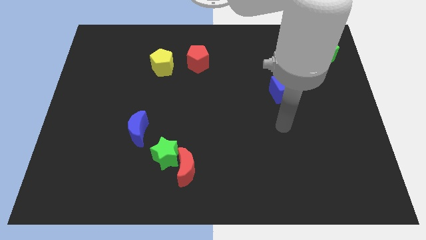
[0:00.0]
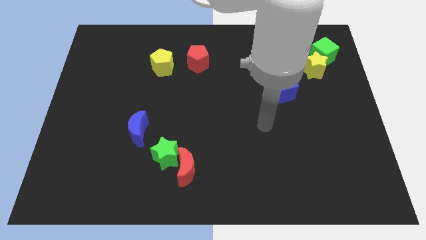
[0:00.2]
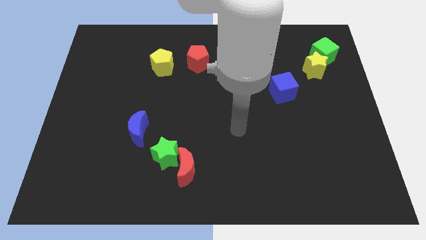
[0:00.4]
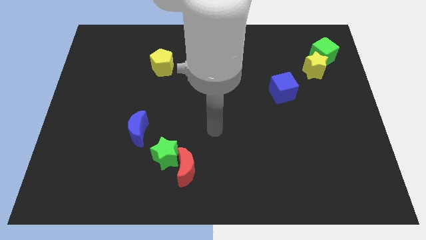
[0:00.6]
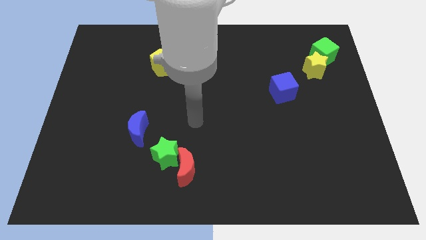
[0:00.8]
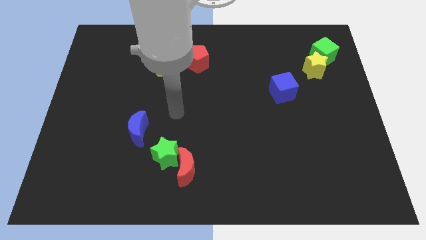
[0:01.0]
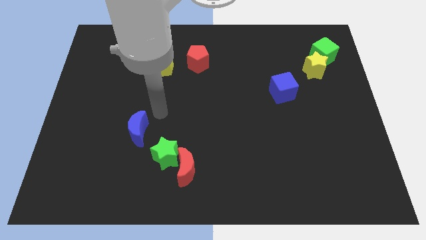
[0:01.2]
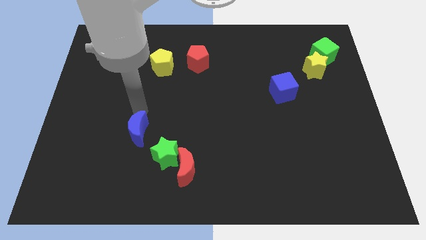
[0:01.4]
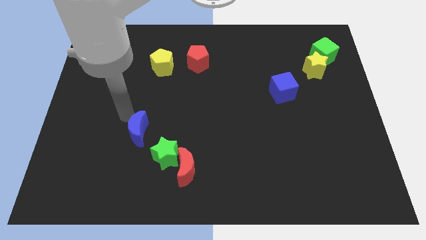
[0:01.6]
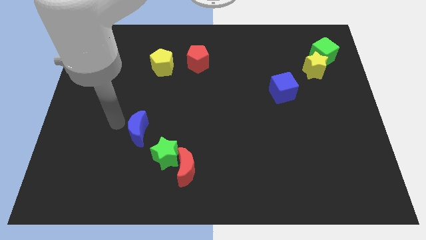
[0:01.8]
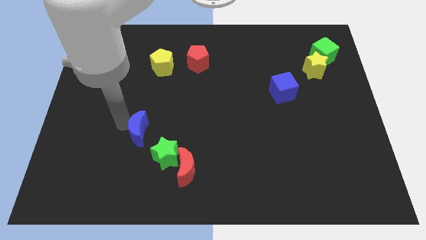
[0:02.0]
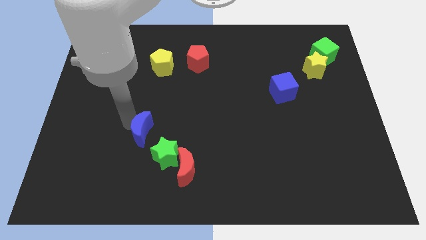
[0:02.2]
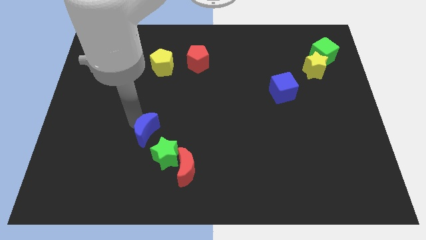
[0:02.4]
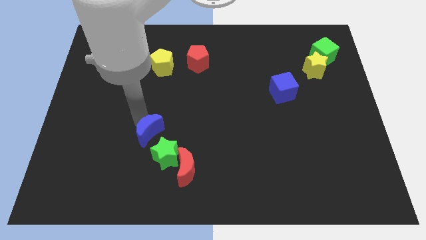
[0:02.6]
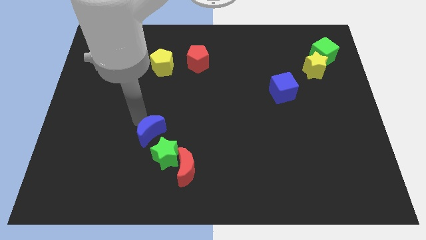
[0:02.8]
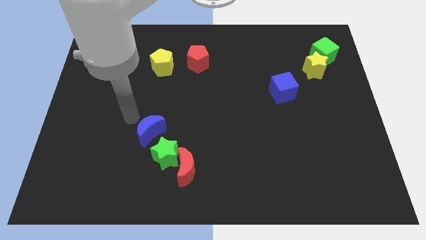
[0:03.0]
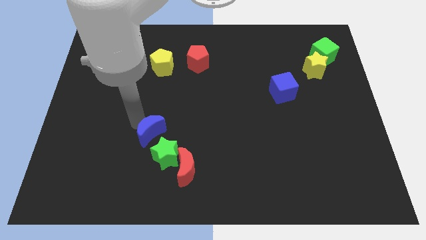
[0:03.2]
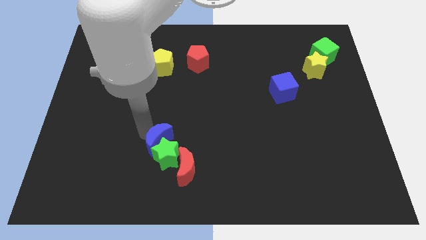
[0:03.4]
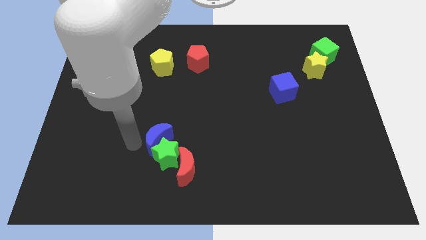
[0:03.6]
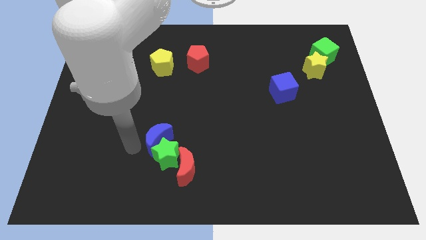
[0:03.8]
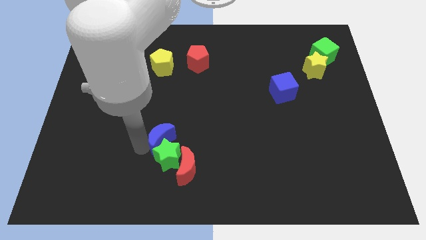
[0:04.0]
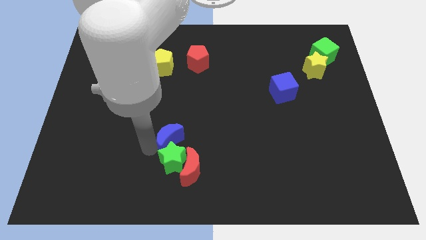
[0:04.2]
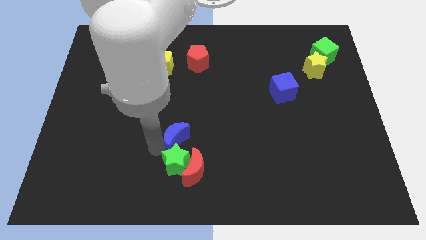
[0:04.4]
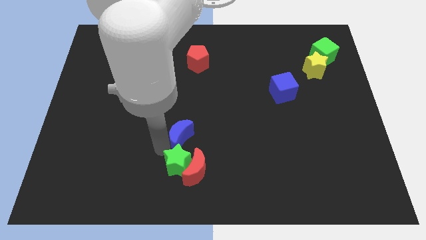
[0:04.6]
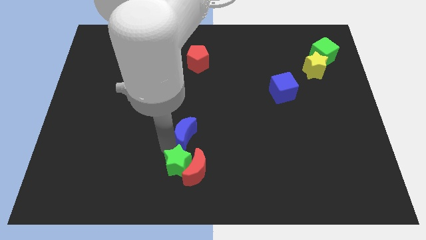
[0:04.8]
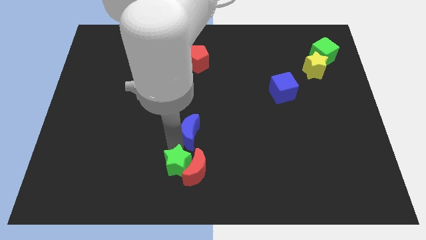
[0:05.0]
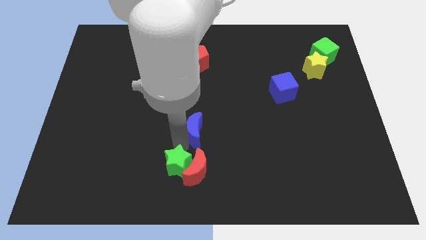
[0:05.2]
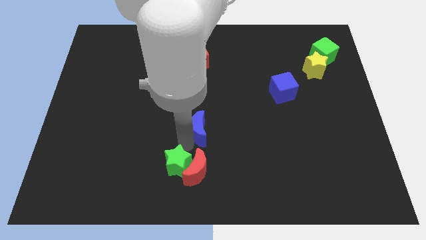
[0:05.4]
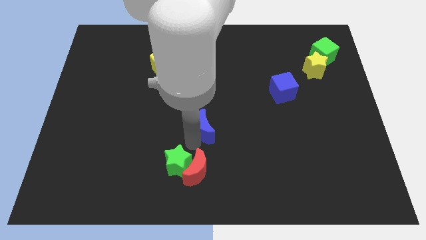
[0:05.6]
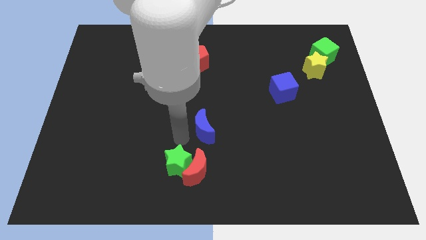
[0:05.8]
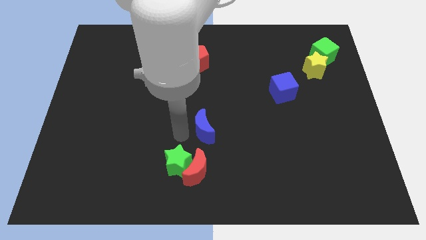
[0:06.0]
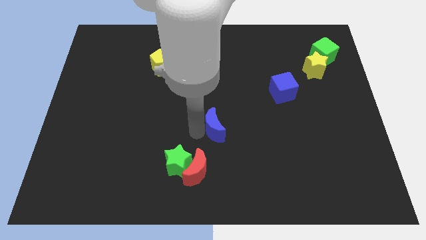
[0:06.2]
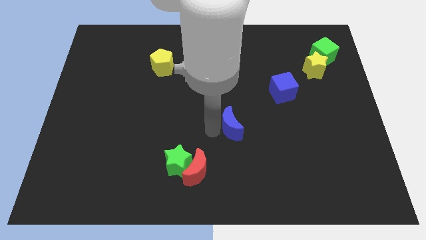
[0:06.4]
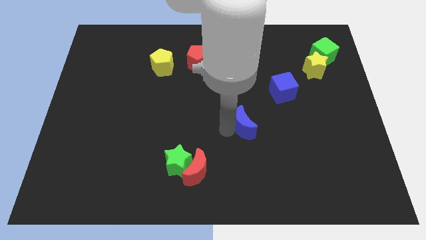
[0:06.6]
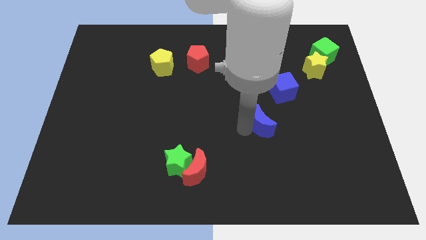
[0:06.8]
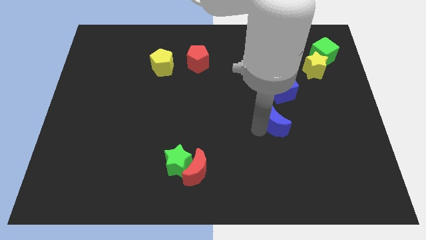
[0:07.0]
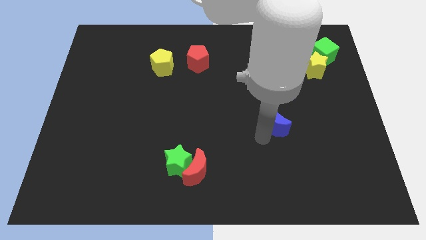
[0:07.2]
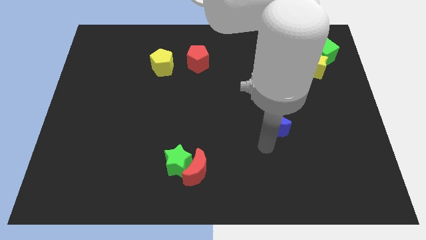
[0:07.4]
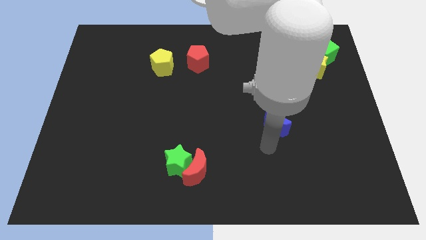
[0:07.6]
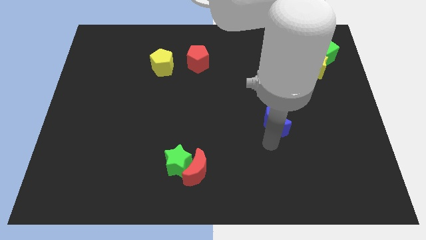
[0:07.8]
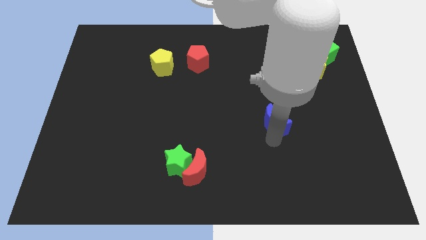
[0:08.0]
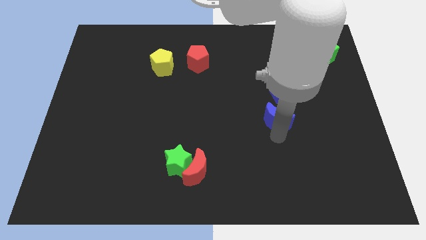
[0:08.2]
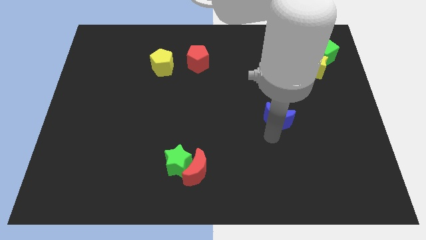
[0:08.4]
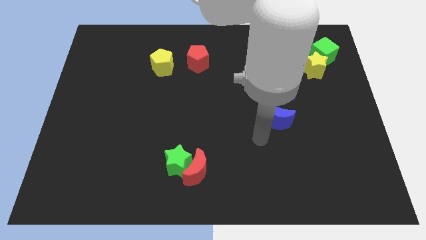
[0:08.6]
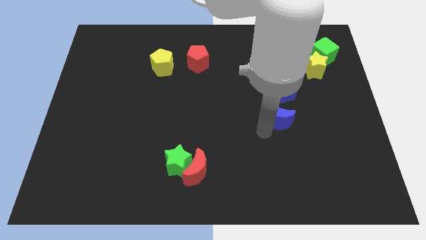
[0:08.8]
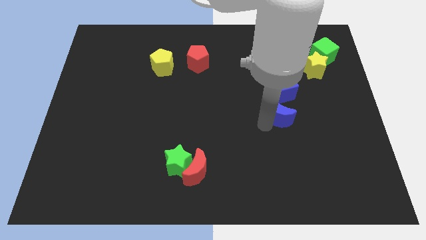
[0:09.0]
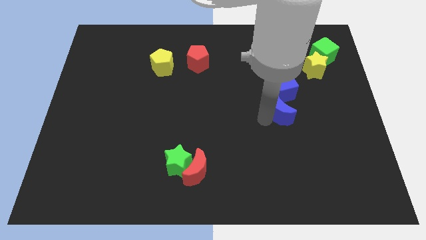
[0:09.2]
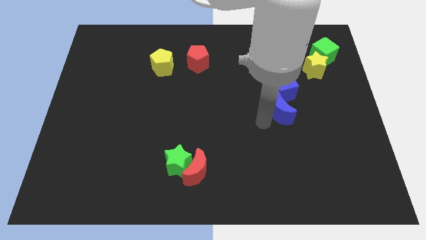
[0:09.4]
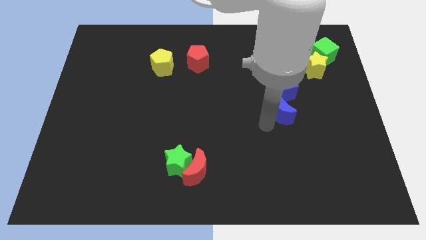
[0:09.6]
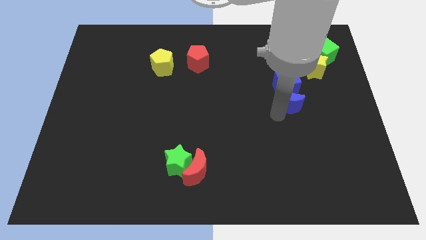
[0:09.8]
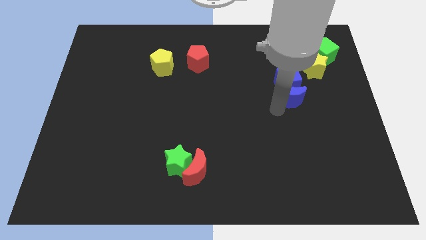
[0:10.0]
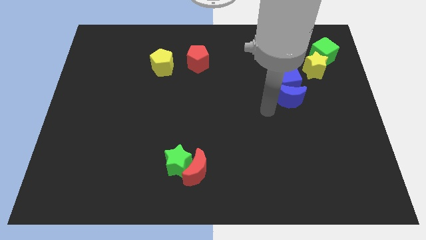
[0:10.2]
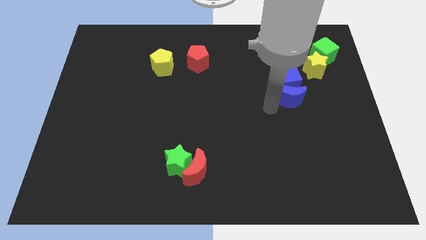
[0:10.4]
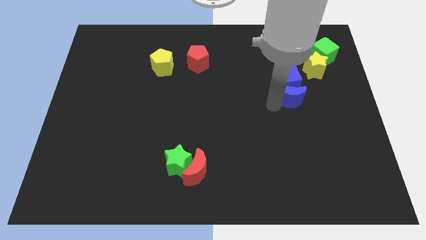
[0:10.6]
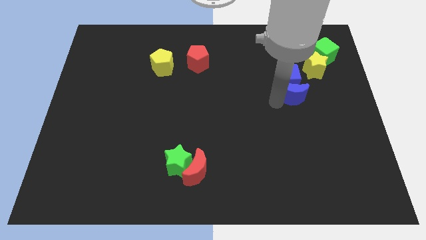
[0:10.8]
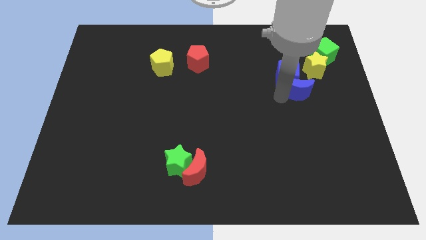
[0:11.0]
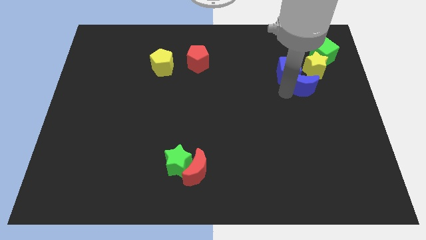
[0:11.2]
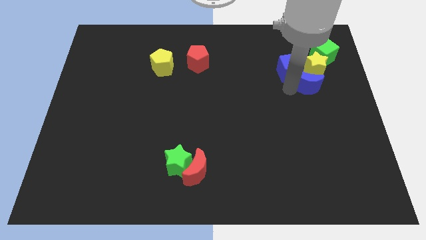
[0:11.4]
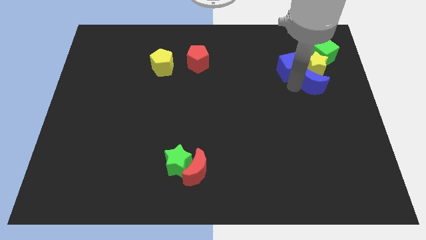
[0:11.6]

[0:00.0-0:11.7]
slide the blue moon to the bottom side of the green cube

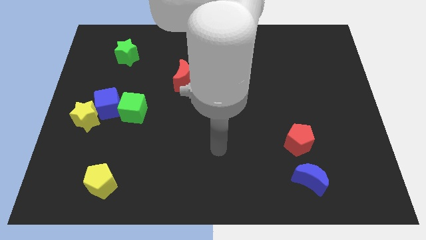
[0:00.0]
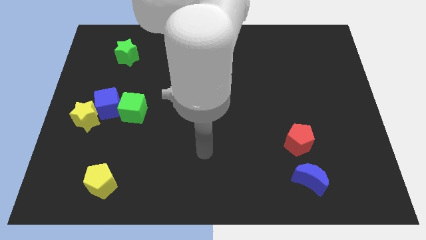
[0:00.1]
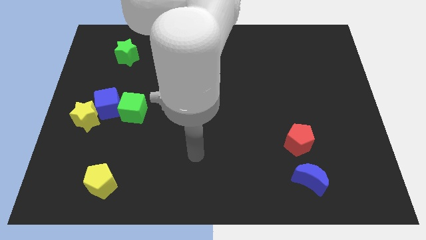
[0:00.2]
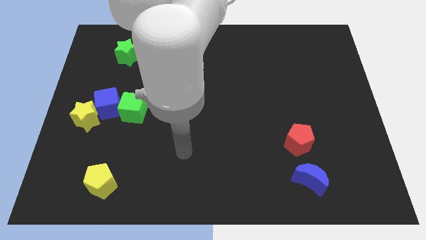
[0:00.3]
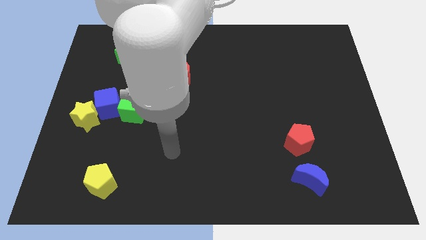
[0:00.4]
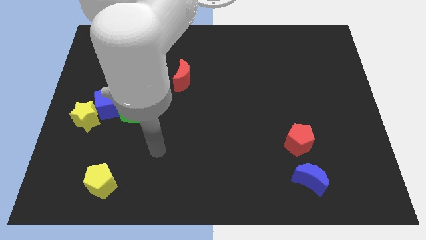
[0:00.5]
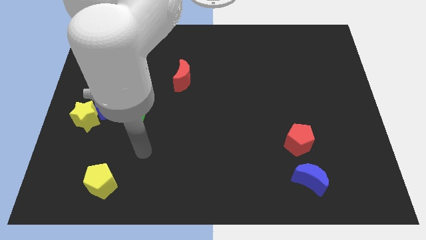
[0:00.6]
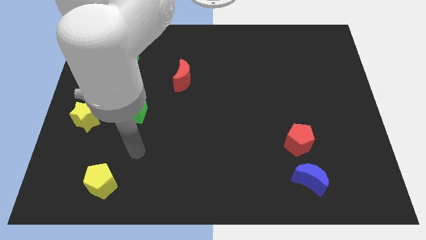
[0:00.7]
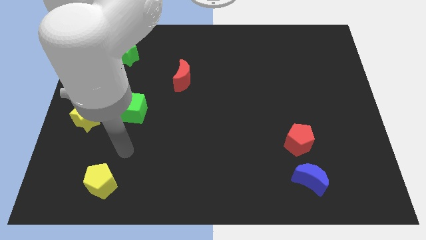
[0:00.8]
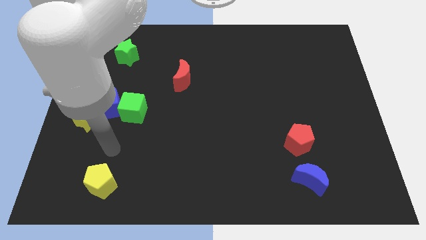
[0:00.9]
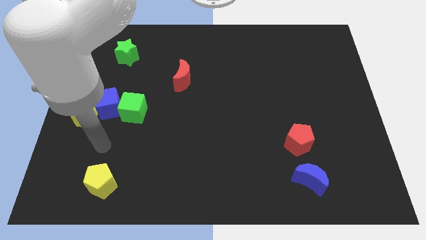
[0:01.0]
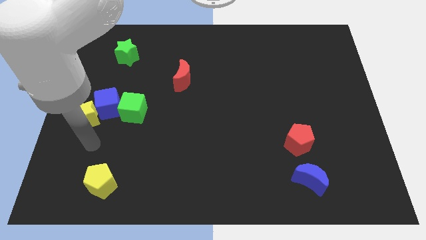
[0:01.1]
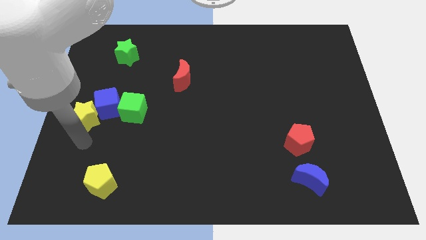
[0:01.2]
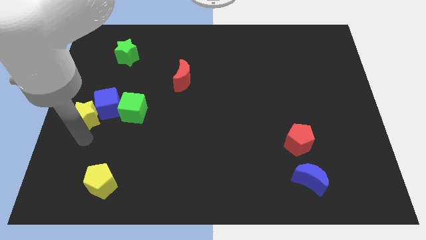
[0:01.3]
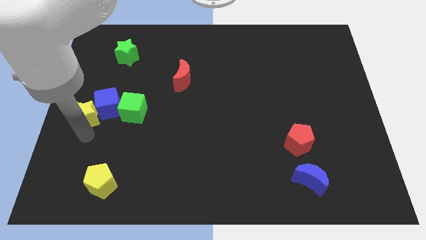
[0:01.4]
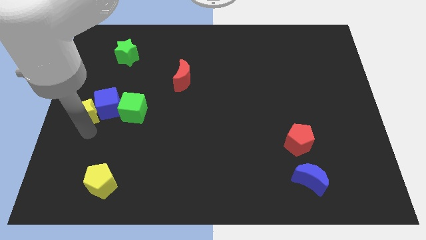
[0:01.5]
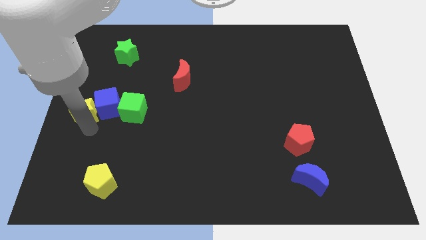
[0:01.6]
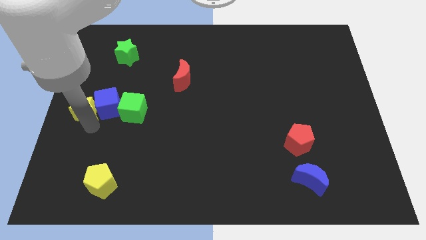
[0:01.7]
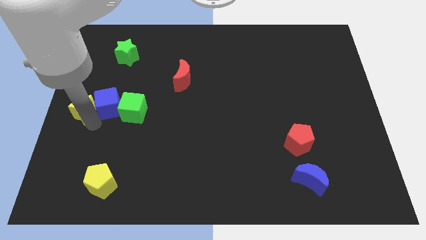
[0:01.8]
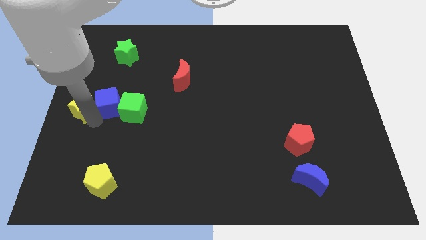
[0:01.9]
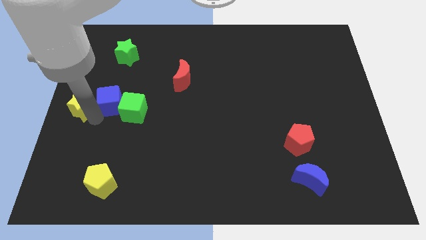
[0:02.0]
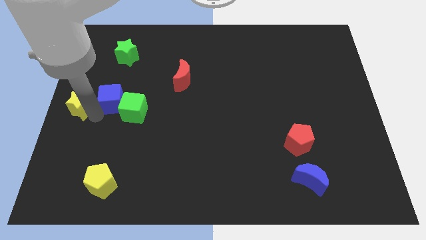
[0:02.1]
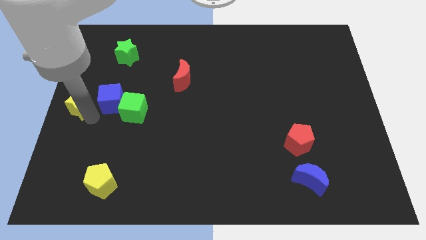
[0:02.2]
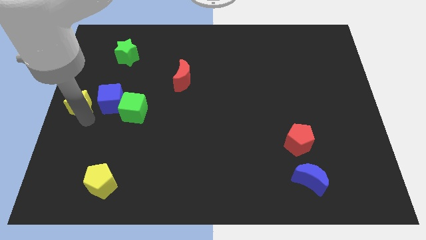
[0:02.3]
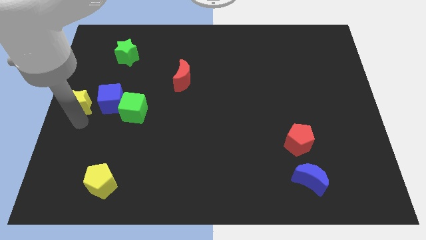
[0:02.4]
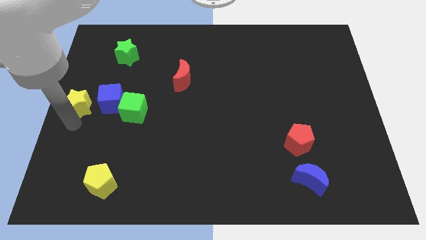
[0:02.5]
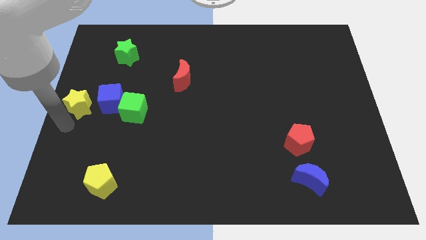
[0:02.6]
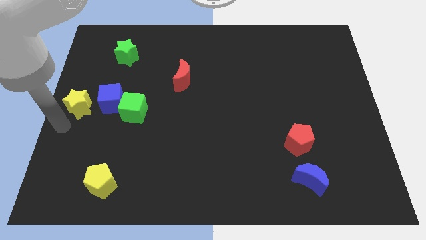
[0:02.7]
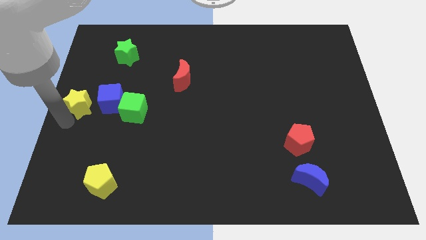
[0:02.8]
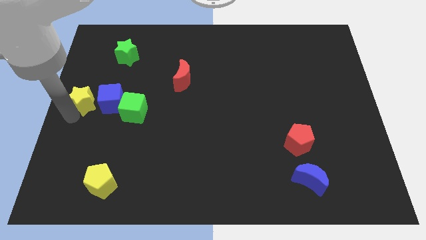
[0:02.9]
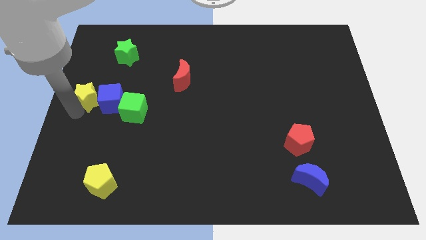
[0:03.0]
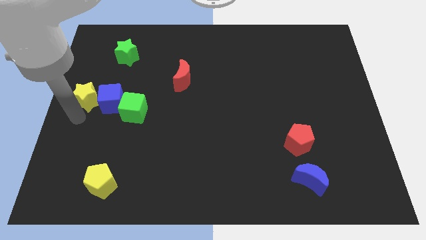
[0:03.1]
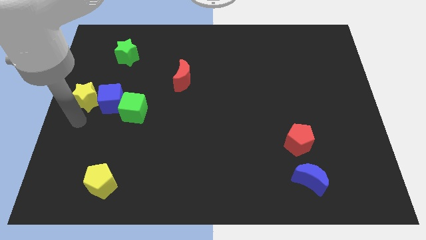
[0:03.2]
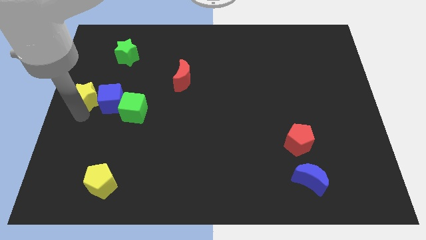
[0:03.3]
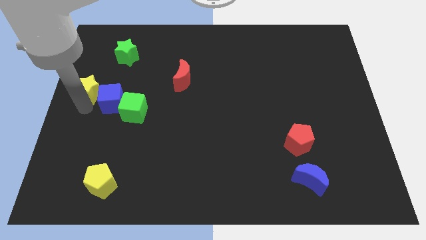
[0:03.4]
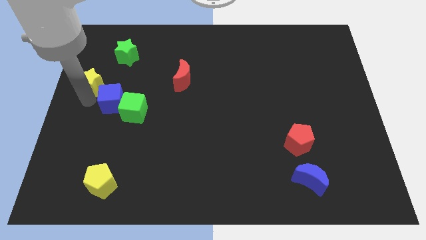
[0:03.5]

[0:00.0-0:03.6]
push the yellow star to the bottom left side of the green star
